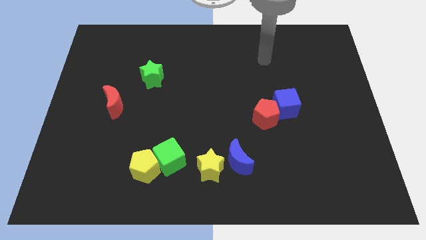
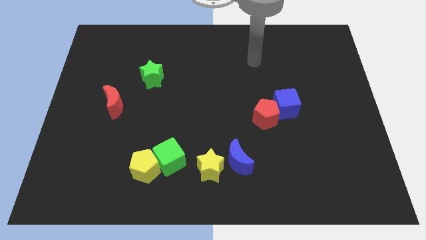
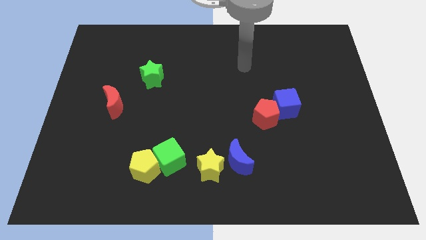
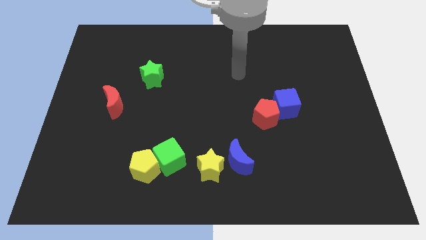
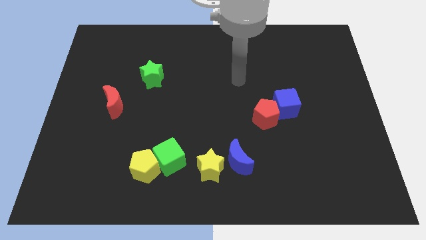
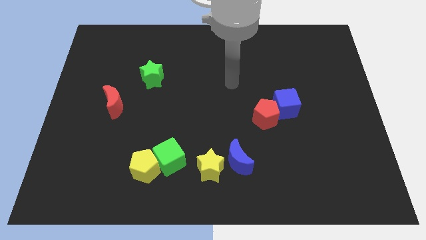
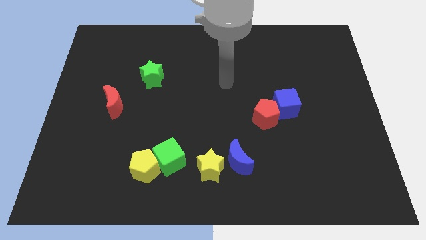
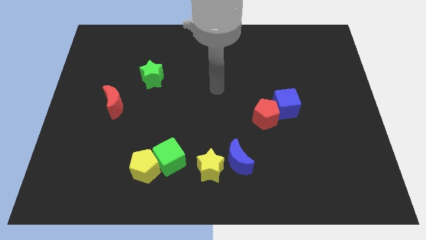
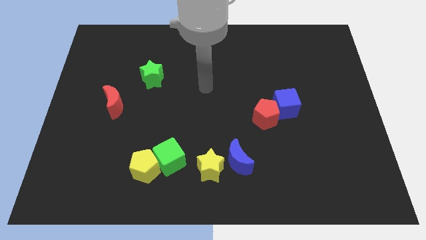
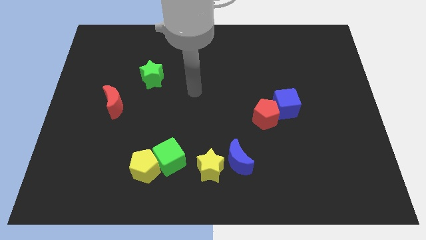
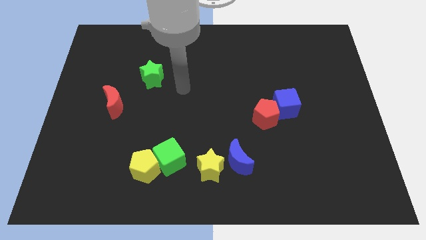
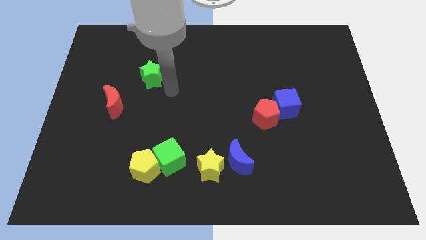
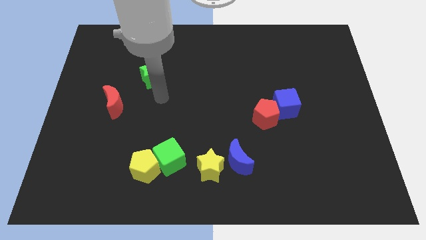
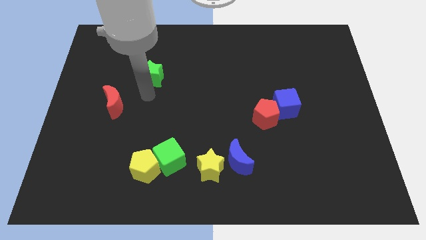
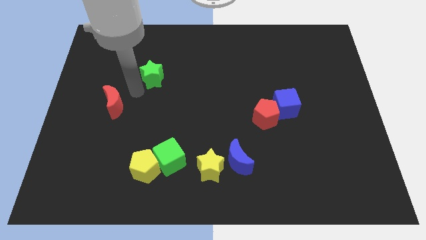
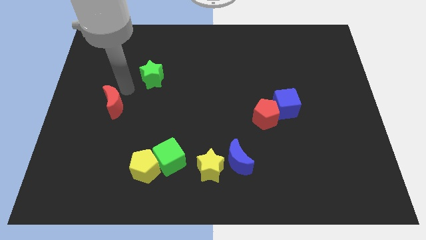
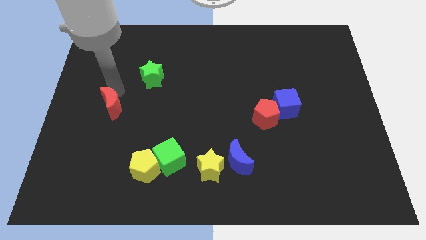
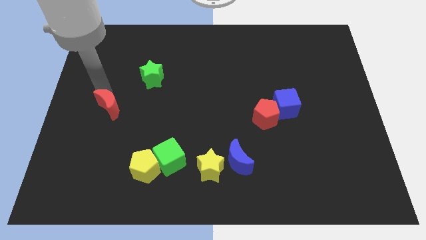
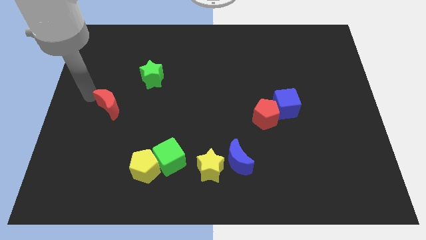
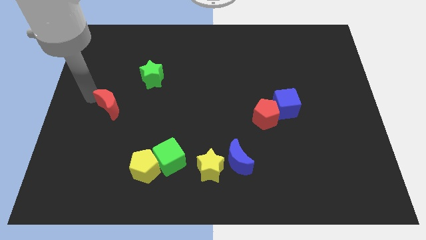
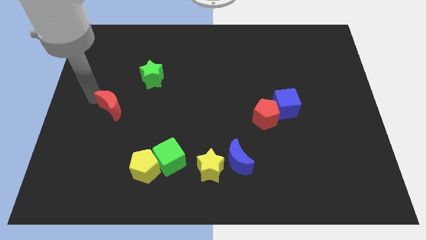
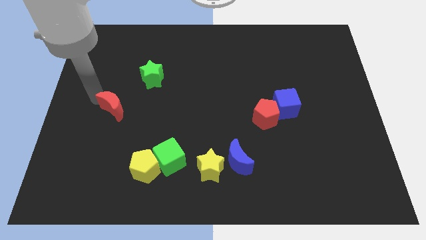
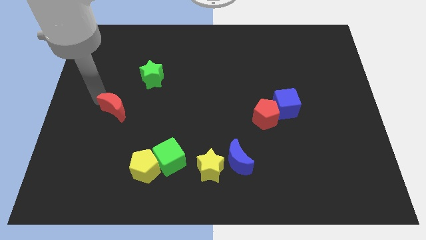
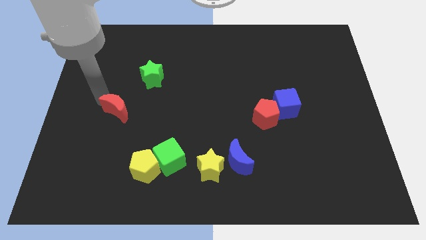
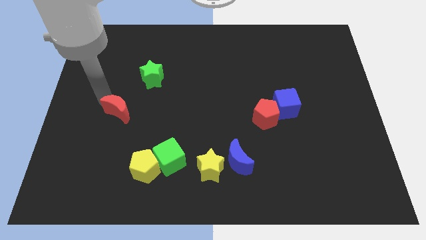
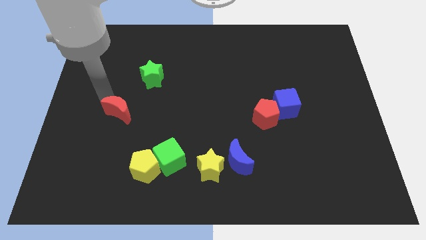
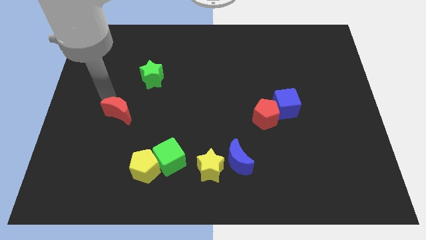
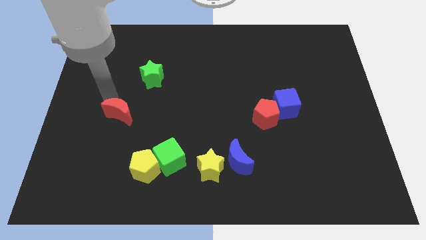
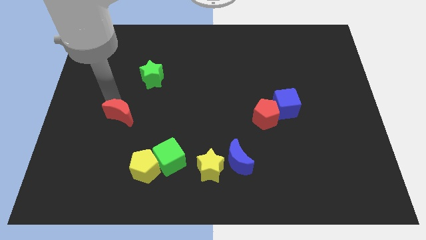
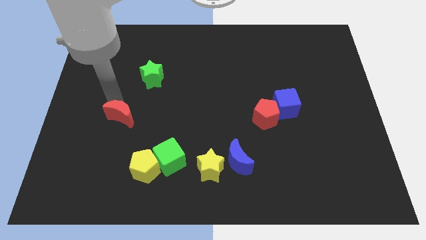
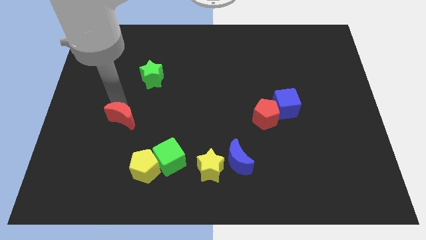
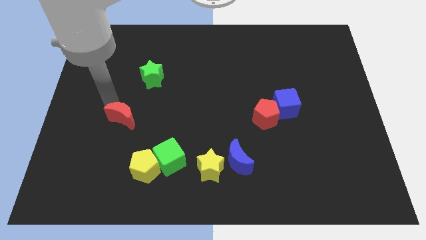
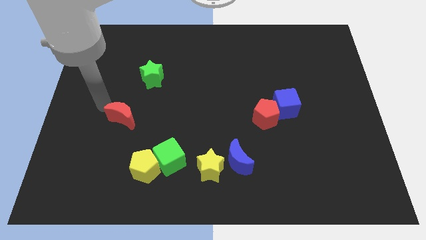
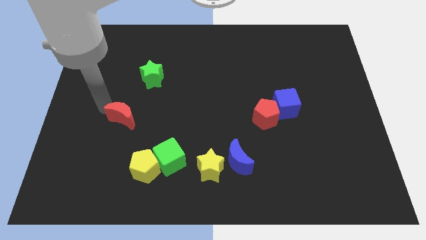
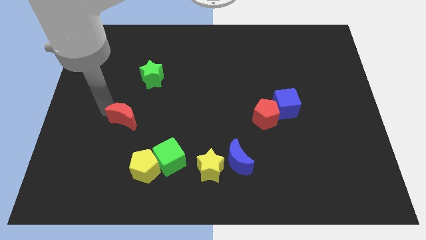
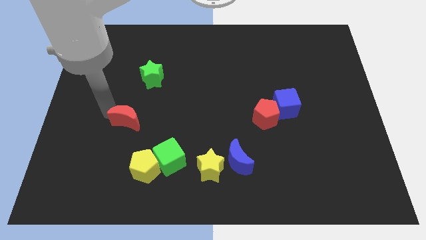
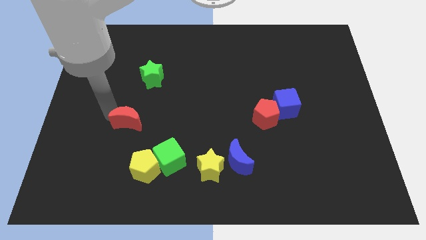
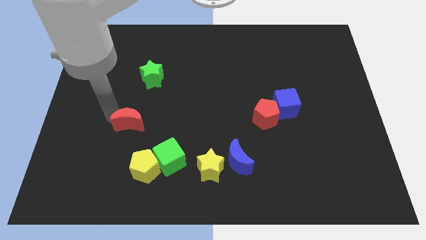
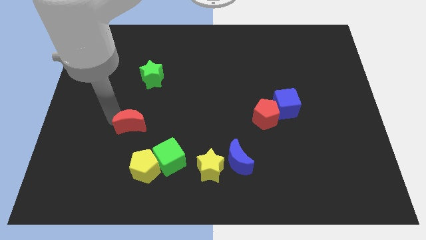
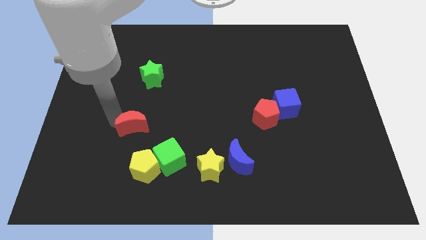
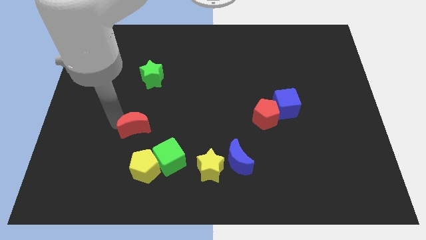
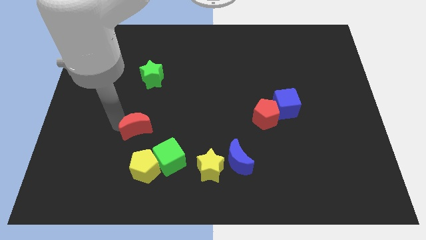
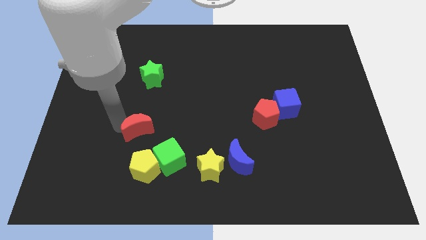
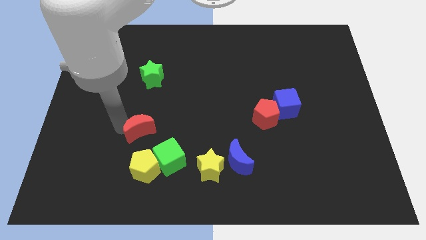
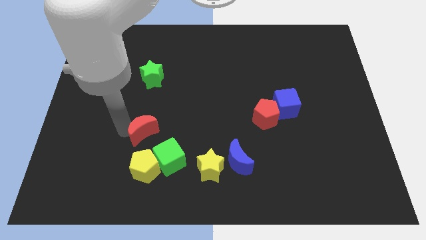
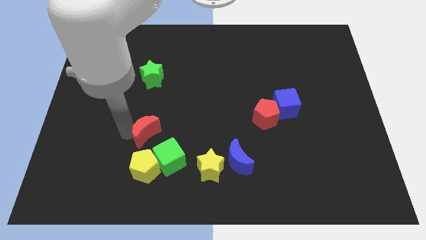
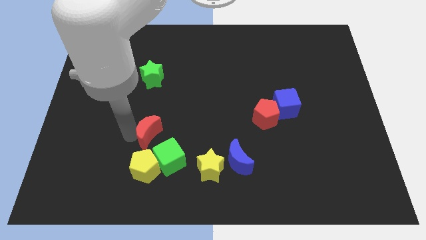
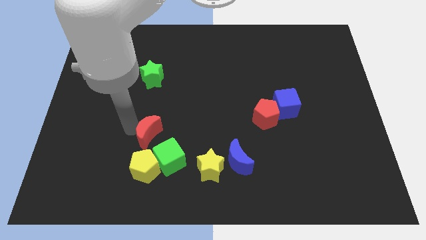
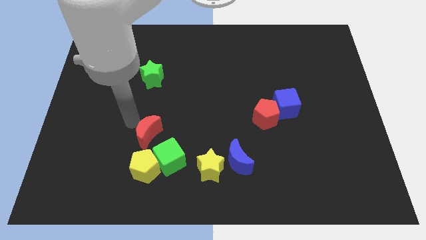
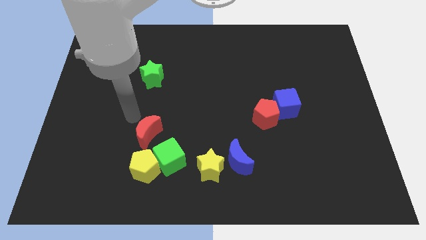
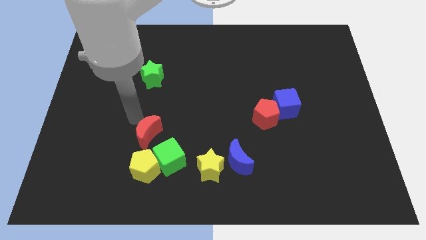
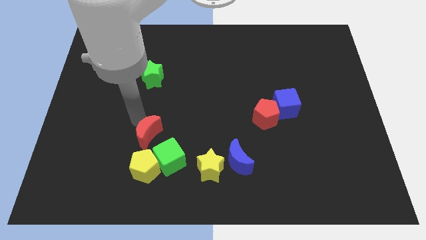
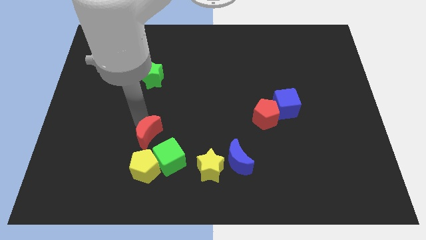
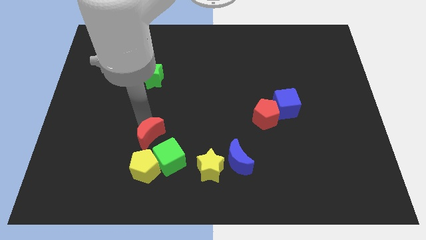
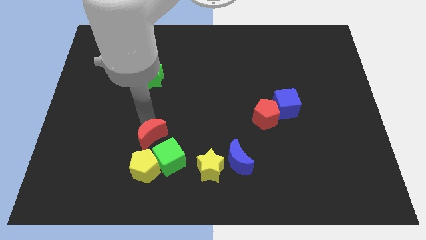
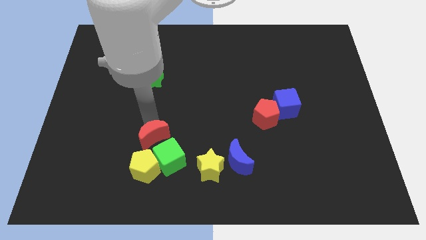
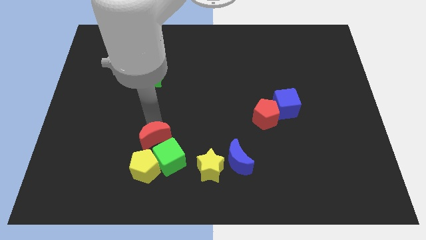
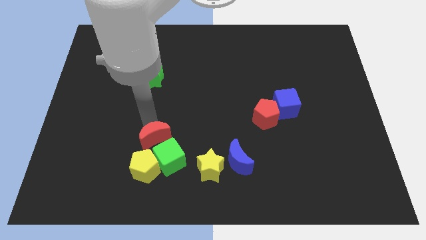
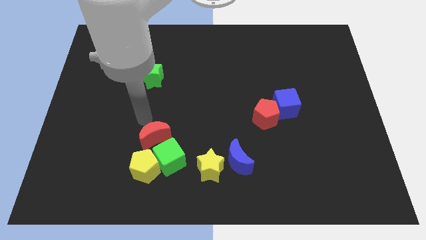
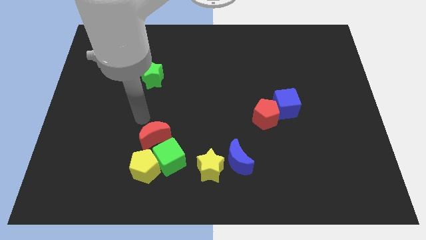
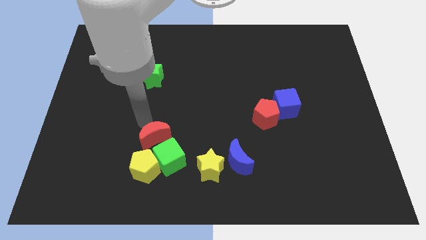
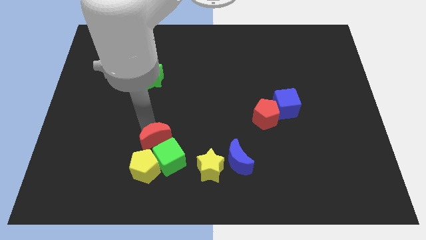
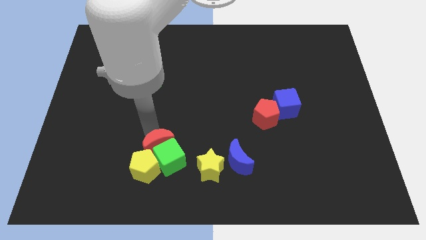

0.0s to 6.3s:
slide the red moon close to the green cube

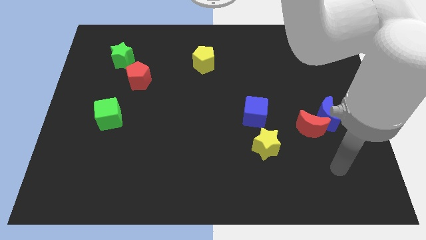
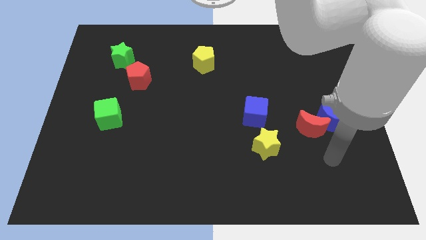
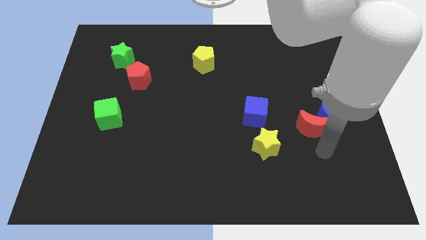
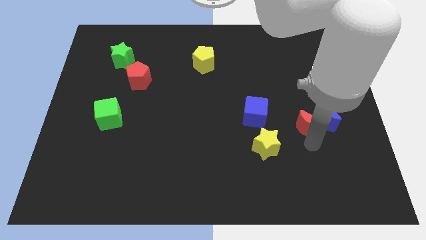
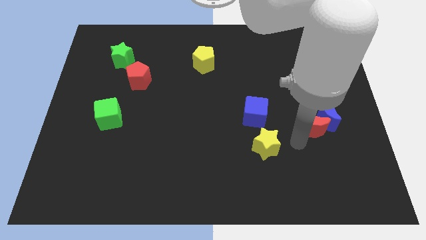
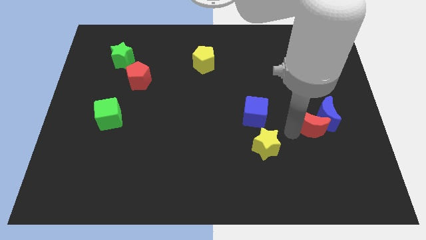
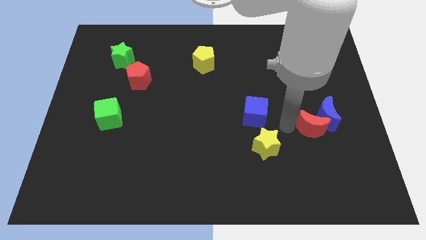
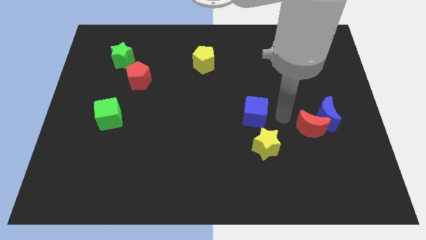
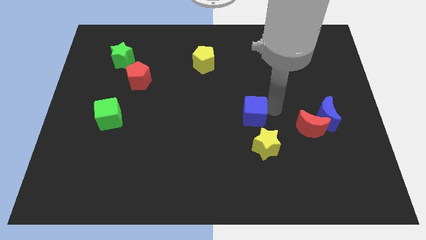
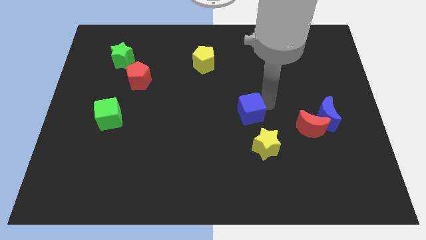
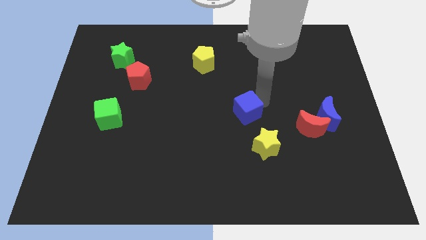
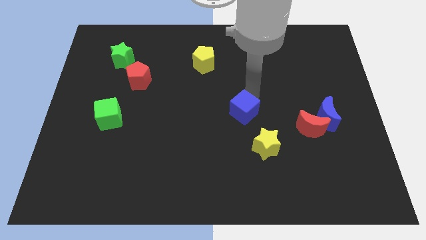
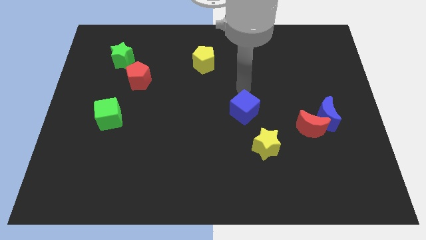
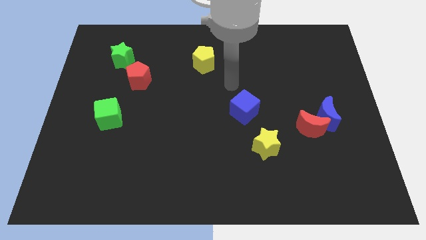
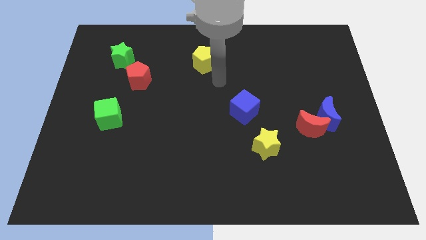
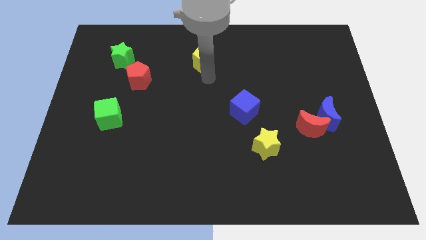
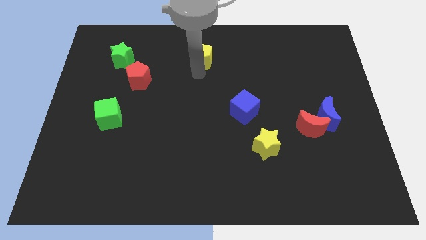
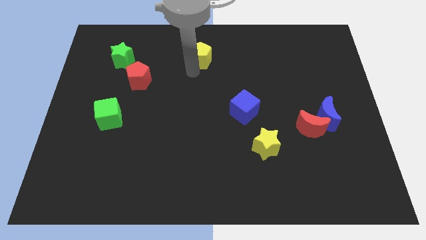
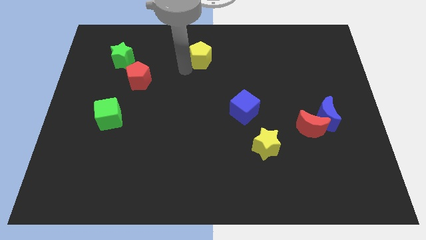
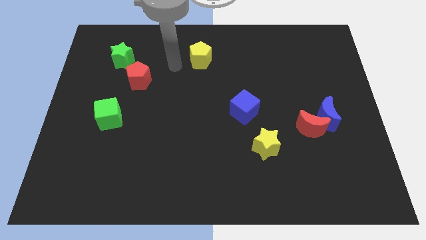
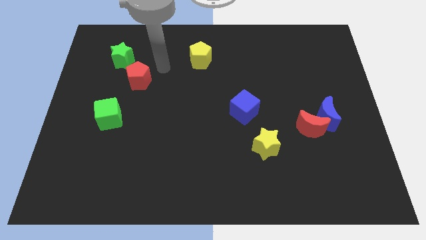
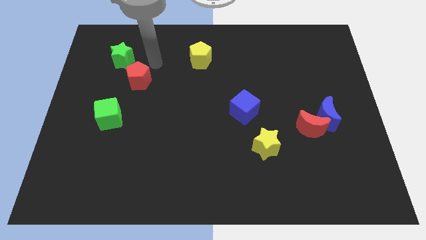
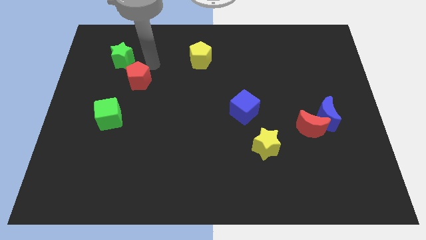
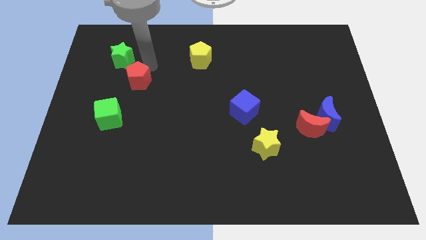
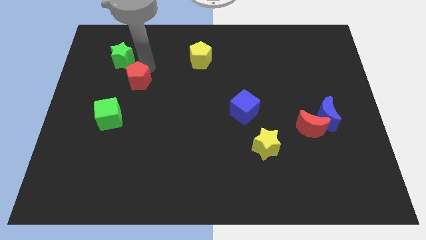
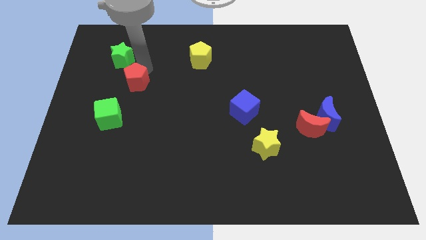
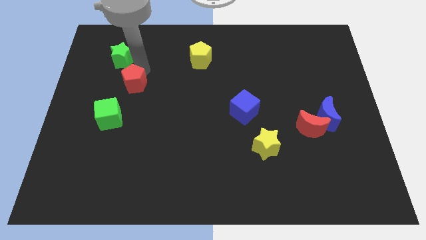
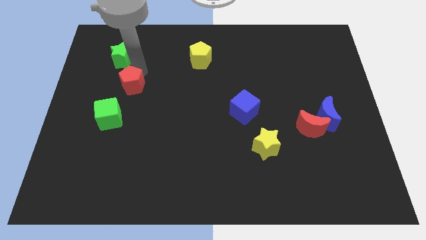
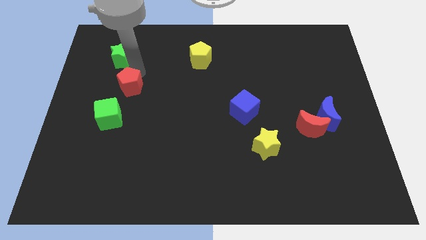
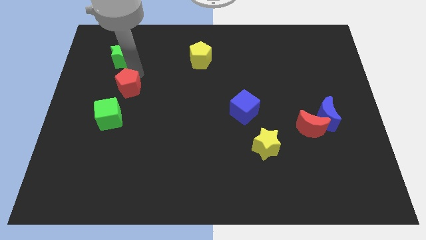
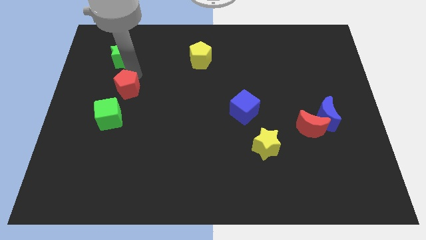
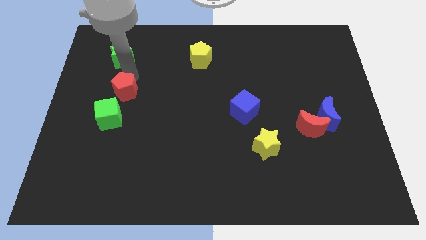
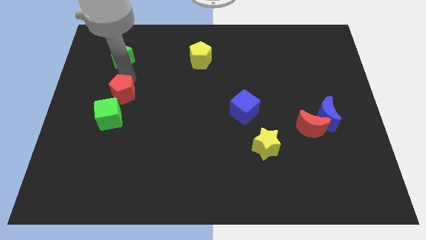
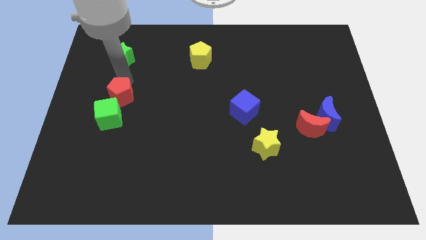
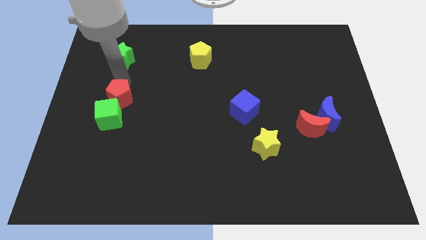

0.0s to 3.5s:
put the red pentagon to the green cube
